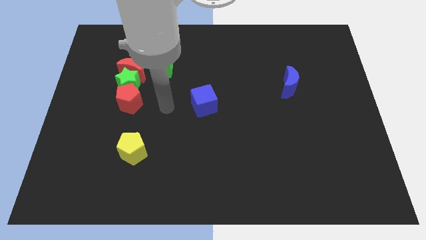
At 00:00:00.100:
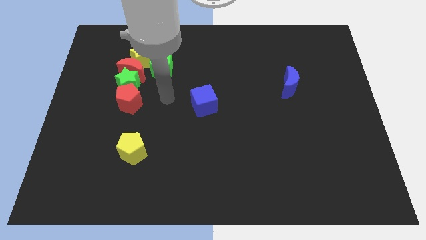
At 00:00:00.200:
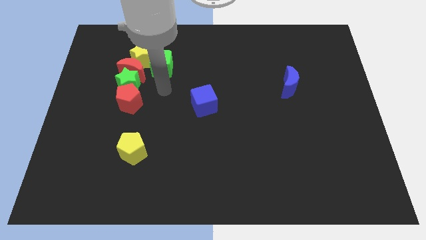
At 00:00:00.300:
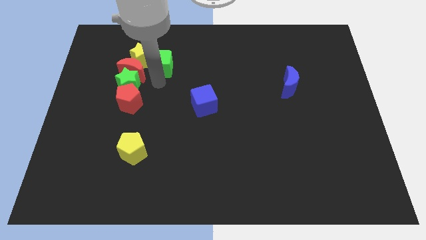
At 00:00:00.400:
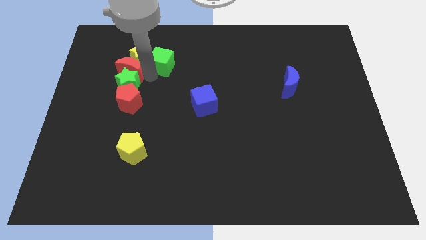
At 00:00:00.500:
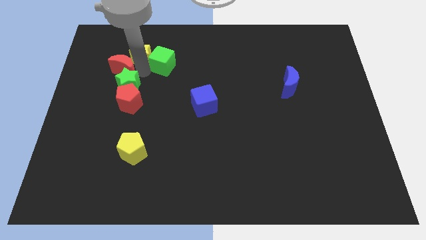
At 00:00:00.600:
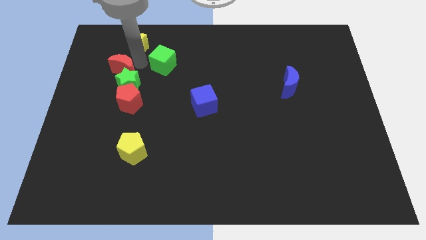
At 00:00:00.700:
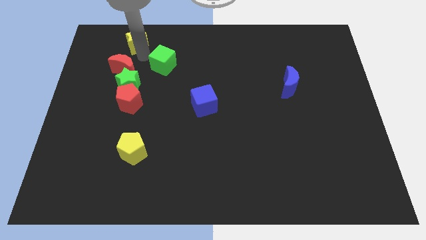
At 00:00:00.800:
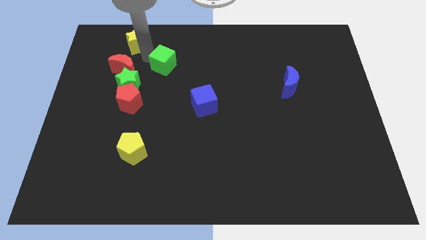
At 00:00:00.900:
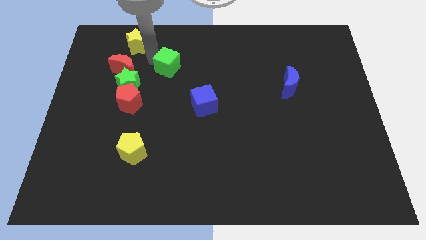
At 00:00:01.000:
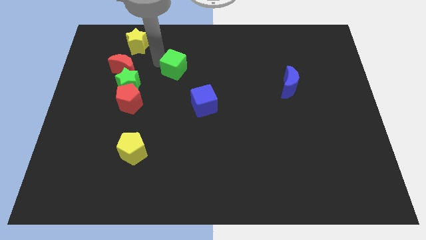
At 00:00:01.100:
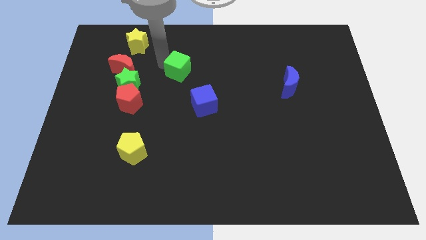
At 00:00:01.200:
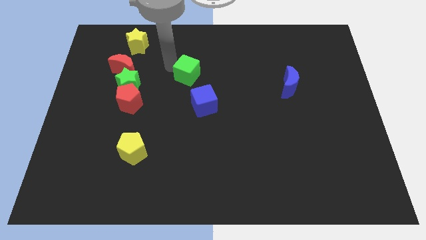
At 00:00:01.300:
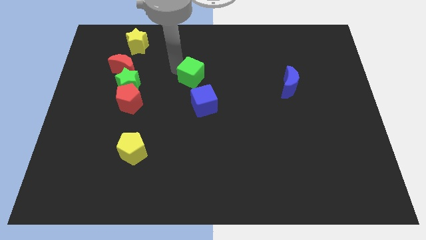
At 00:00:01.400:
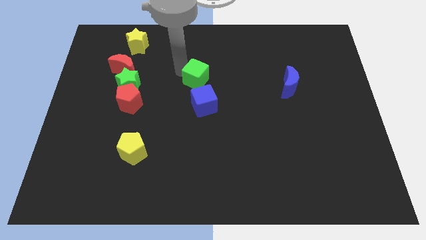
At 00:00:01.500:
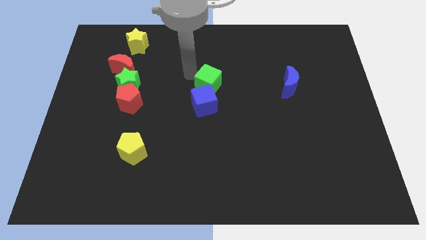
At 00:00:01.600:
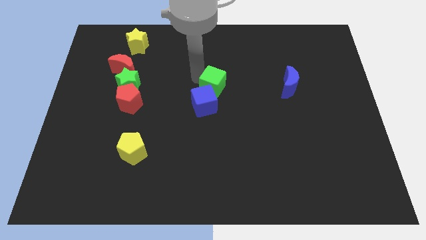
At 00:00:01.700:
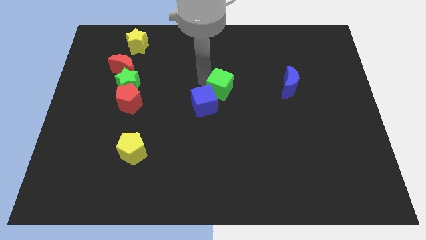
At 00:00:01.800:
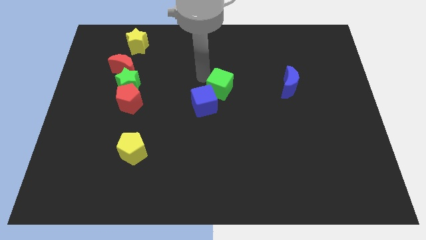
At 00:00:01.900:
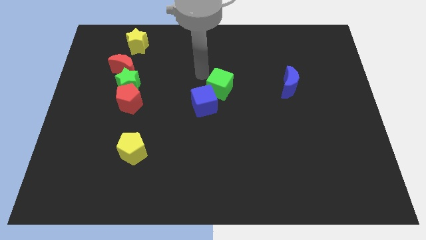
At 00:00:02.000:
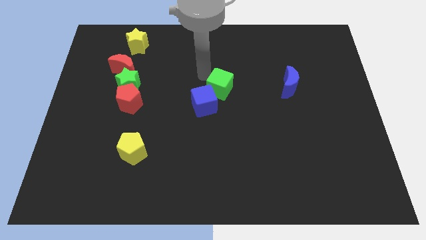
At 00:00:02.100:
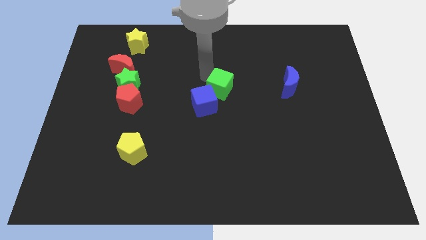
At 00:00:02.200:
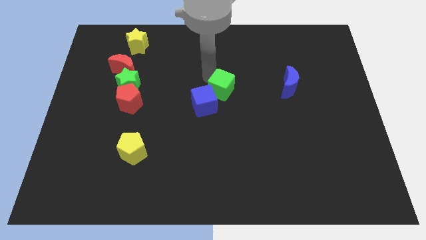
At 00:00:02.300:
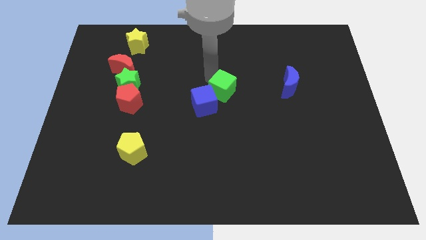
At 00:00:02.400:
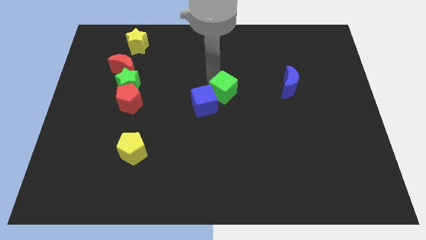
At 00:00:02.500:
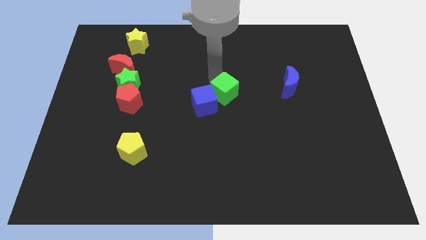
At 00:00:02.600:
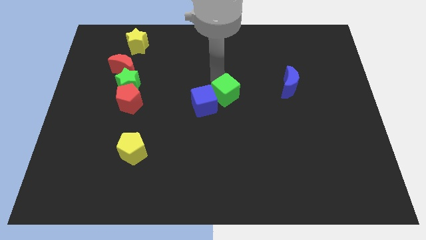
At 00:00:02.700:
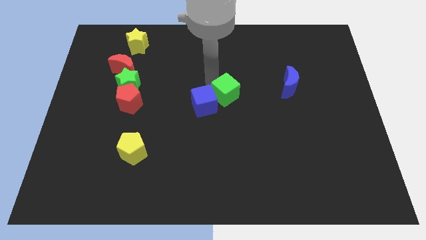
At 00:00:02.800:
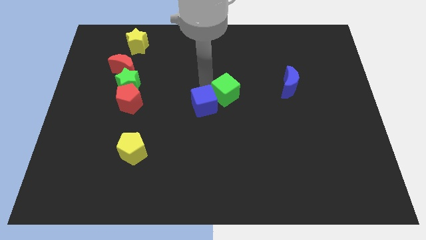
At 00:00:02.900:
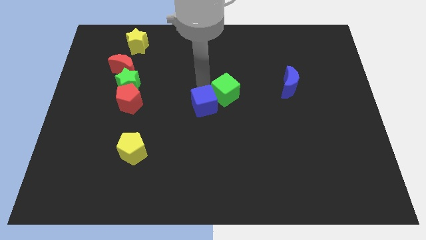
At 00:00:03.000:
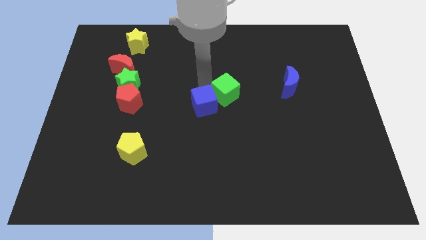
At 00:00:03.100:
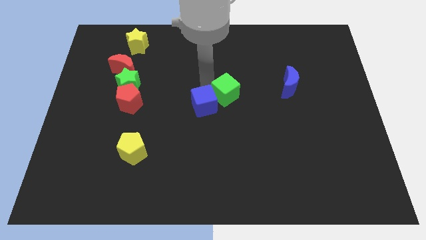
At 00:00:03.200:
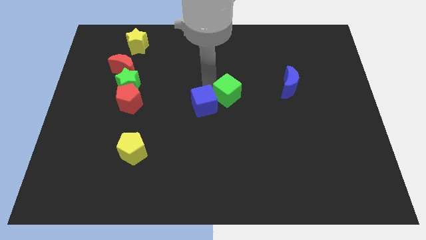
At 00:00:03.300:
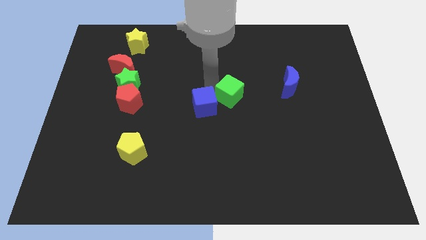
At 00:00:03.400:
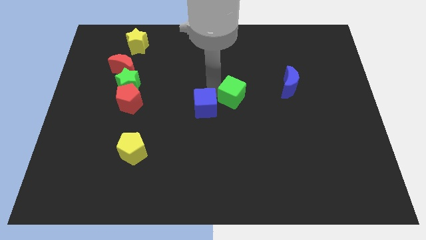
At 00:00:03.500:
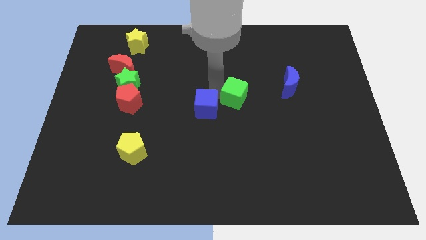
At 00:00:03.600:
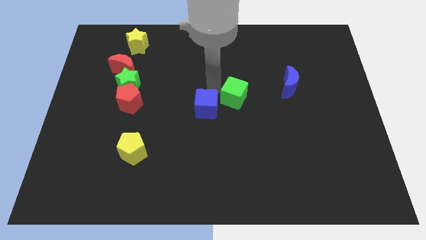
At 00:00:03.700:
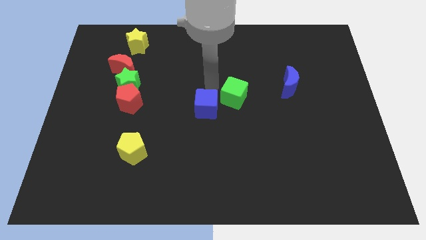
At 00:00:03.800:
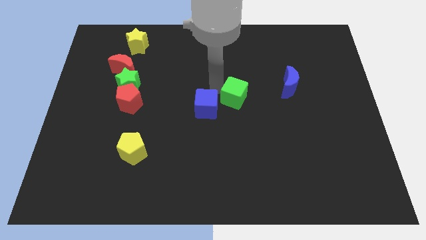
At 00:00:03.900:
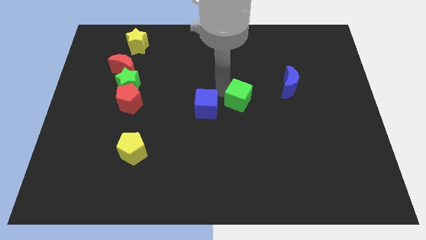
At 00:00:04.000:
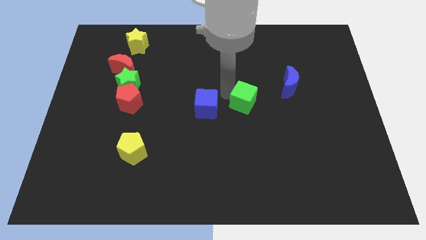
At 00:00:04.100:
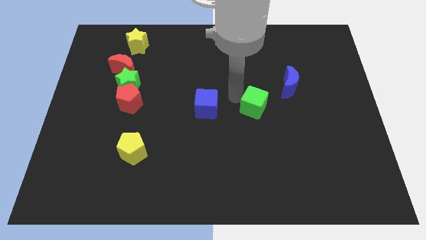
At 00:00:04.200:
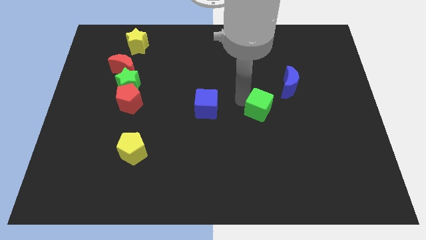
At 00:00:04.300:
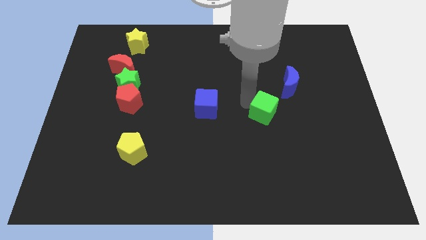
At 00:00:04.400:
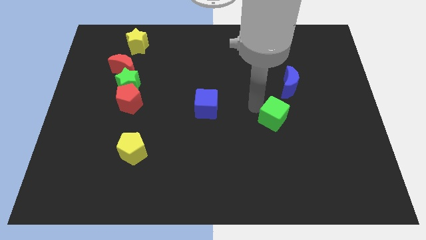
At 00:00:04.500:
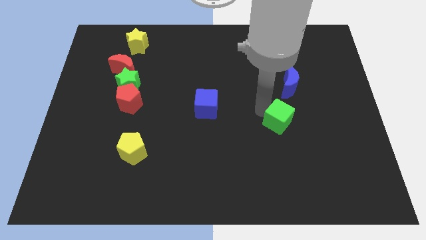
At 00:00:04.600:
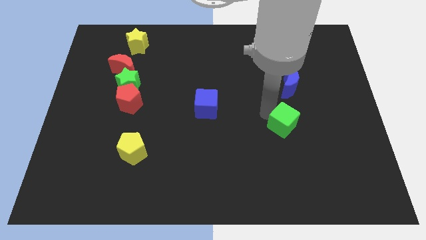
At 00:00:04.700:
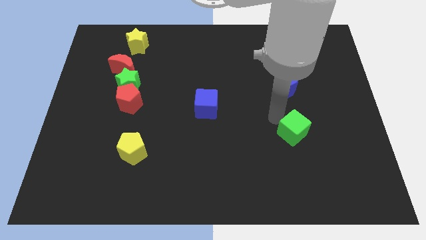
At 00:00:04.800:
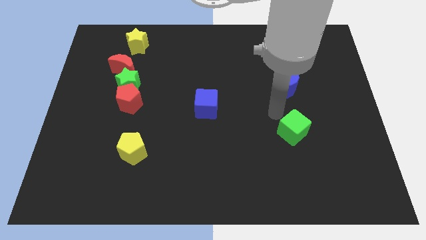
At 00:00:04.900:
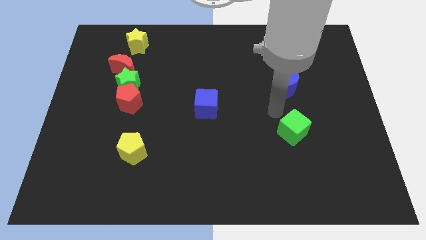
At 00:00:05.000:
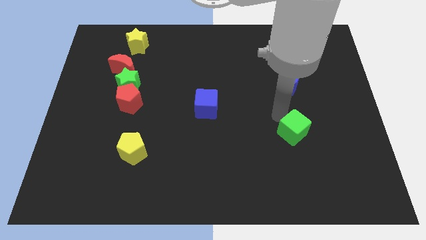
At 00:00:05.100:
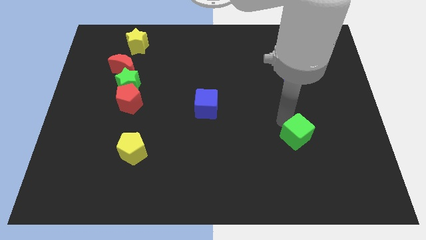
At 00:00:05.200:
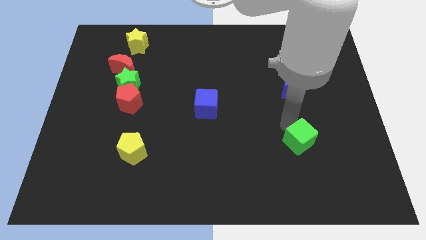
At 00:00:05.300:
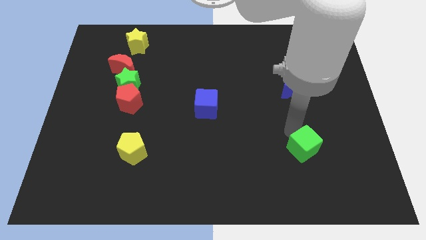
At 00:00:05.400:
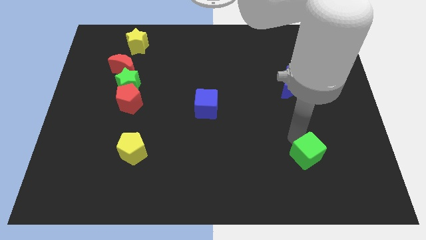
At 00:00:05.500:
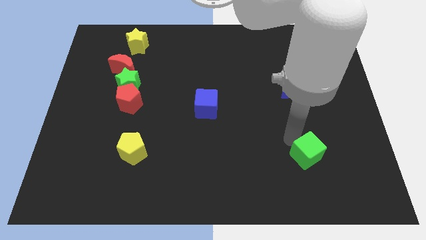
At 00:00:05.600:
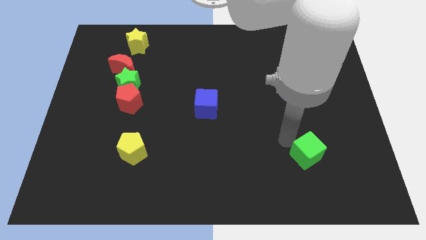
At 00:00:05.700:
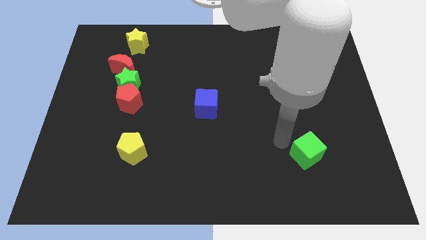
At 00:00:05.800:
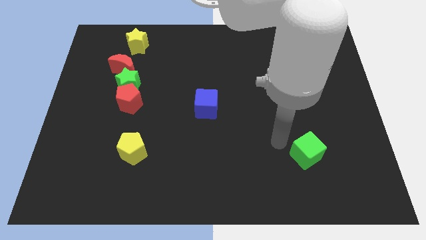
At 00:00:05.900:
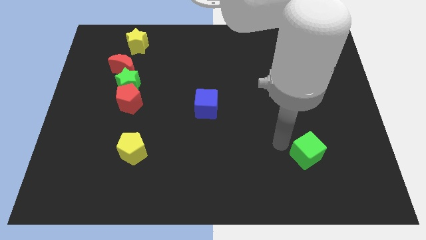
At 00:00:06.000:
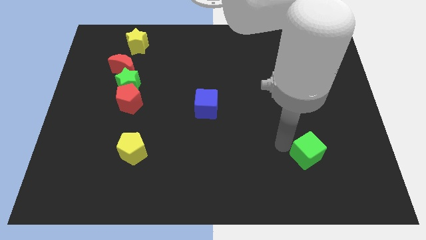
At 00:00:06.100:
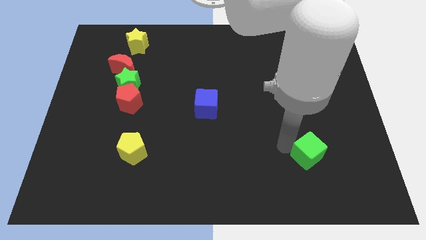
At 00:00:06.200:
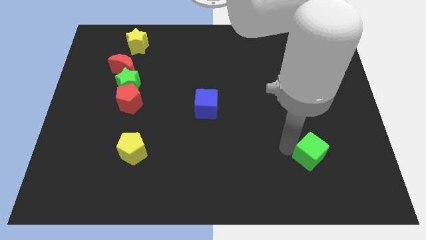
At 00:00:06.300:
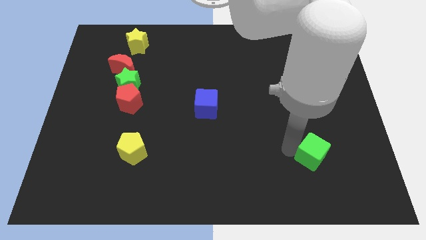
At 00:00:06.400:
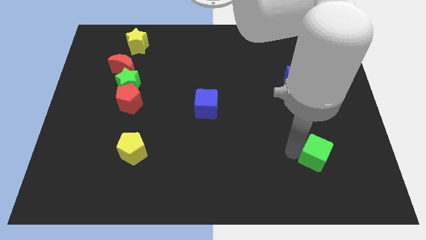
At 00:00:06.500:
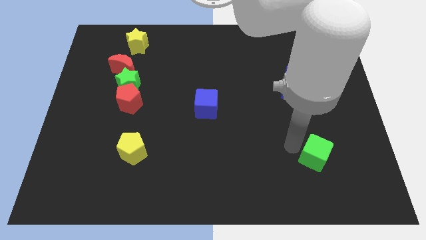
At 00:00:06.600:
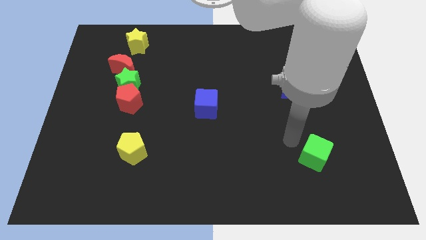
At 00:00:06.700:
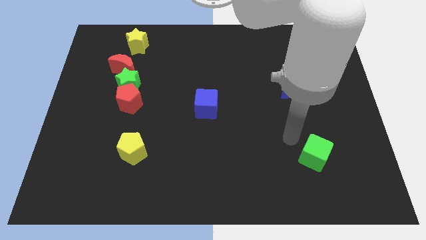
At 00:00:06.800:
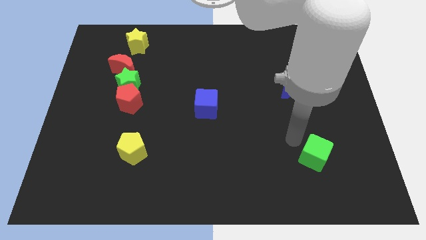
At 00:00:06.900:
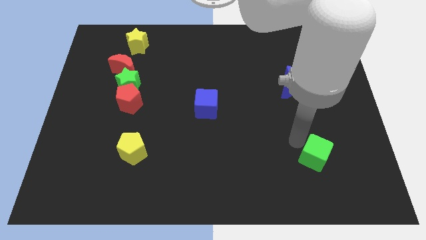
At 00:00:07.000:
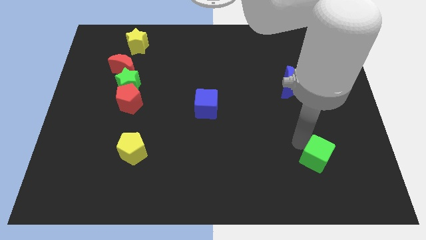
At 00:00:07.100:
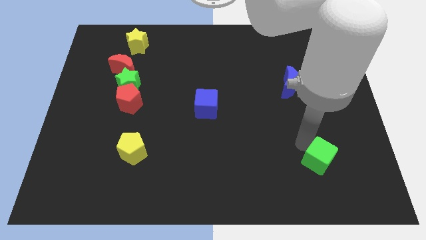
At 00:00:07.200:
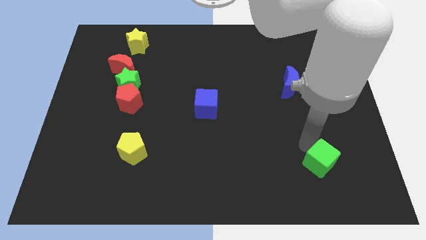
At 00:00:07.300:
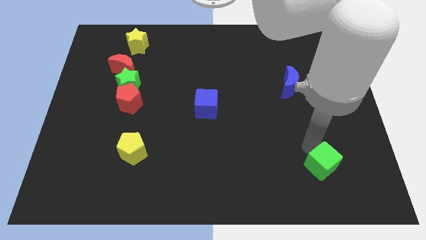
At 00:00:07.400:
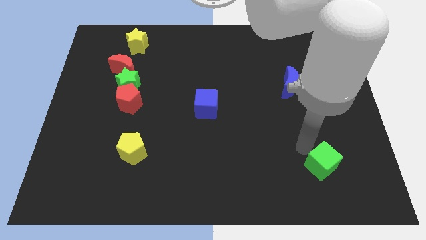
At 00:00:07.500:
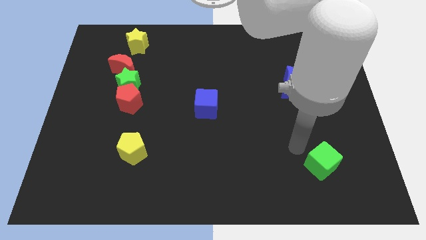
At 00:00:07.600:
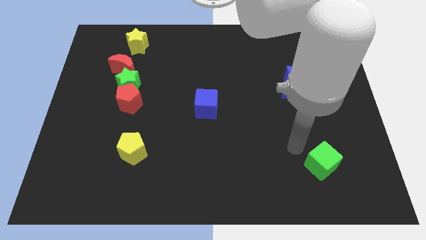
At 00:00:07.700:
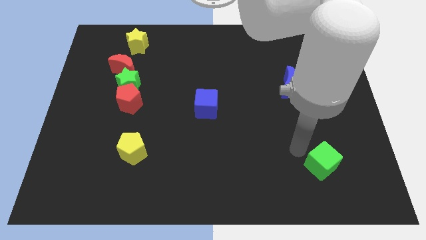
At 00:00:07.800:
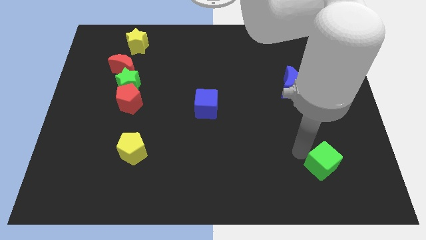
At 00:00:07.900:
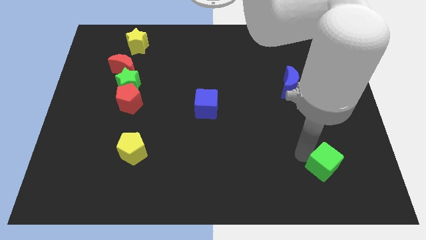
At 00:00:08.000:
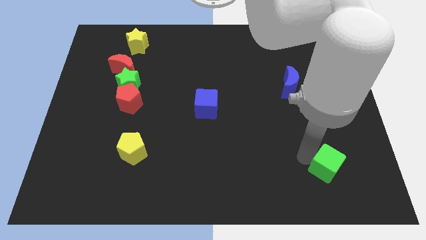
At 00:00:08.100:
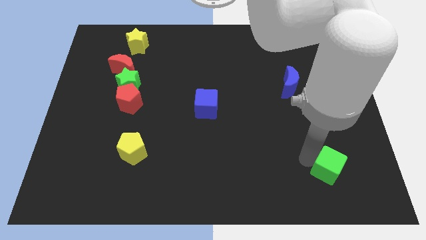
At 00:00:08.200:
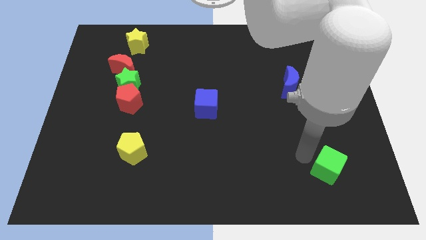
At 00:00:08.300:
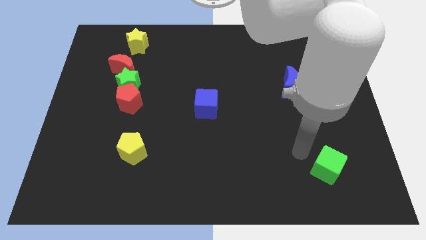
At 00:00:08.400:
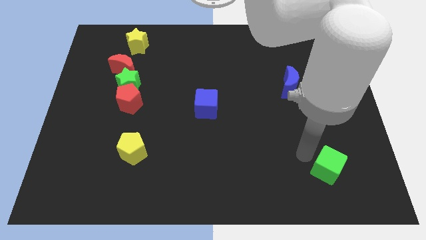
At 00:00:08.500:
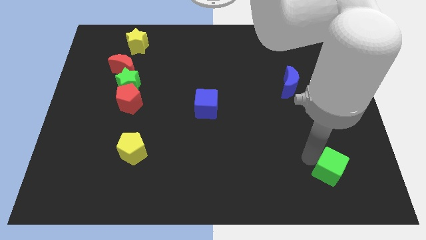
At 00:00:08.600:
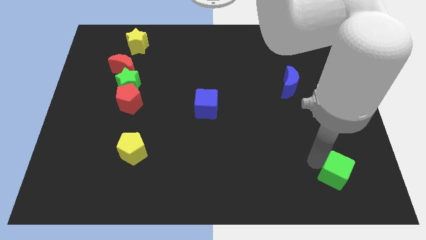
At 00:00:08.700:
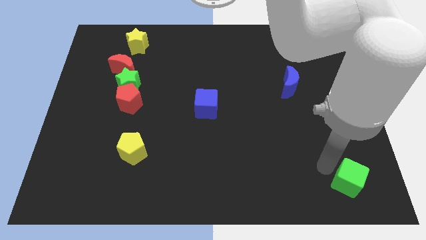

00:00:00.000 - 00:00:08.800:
move the green cube to the bottom right of the board
